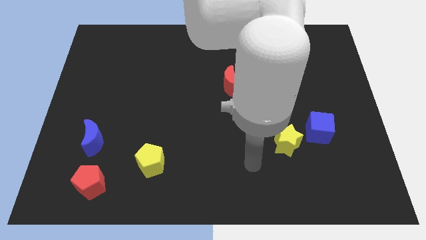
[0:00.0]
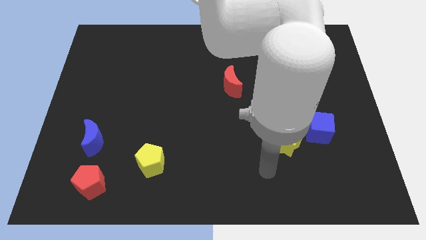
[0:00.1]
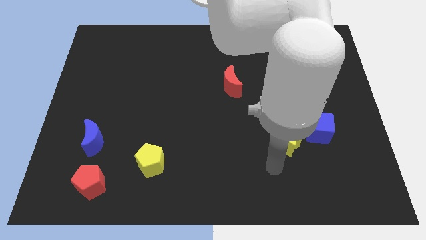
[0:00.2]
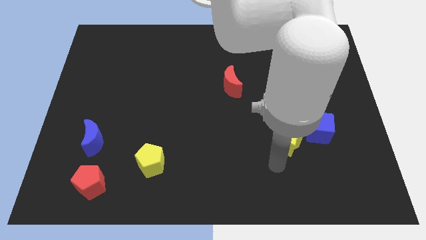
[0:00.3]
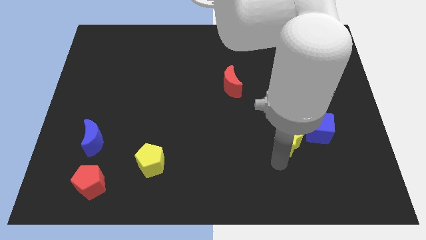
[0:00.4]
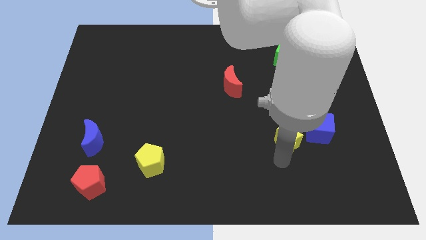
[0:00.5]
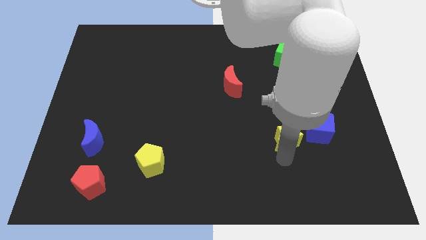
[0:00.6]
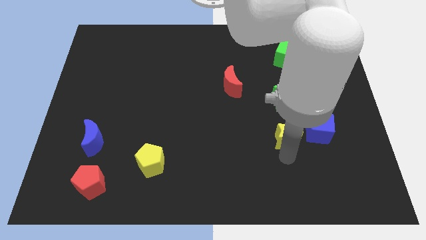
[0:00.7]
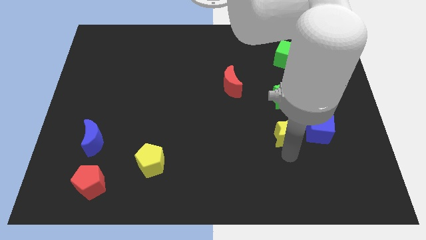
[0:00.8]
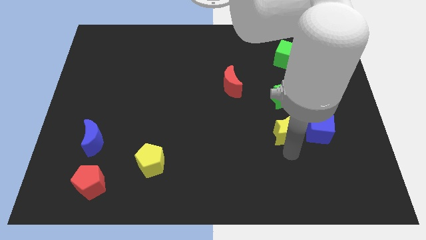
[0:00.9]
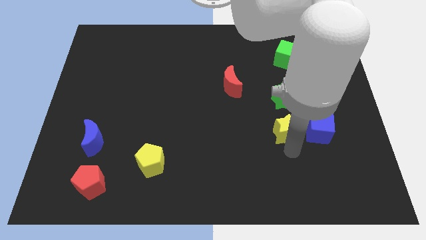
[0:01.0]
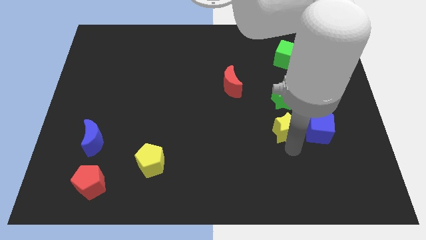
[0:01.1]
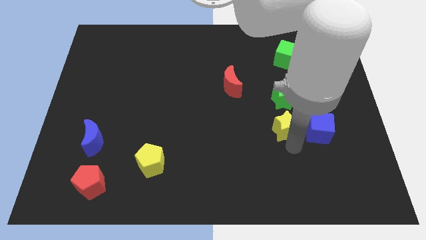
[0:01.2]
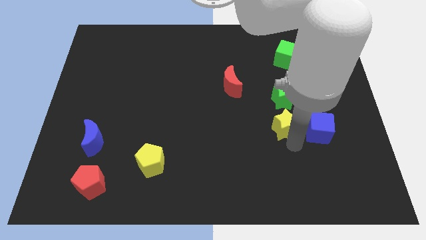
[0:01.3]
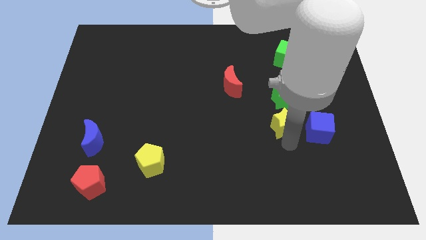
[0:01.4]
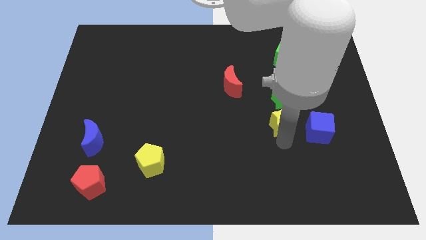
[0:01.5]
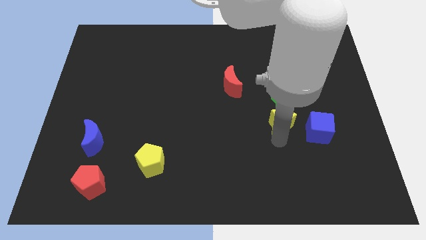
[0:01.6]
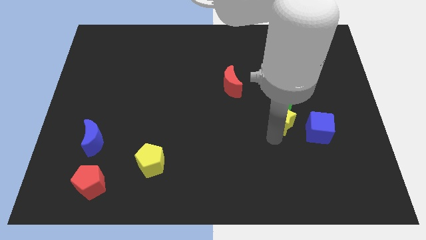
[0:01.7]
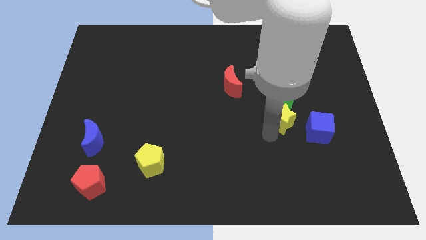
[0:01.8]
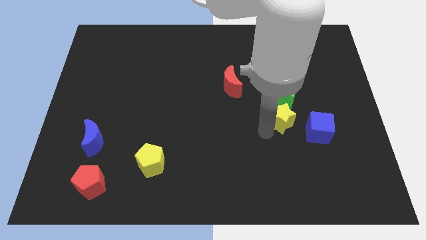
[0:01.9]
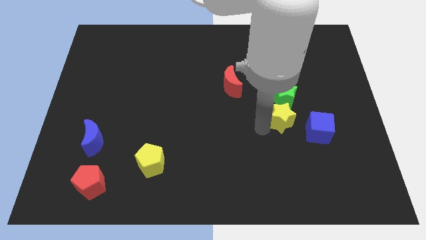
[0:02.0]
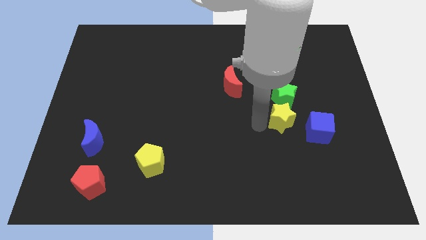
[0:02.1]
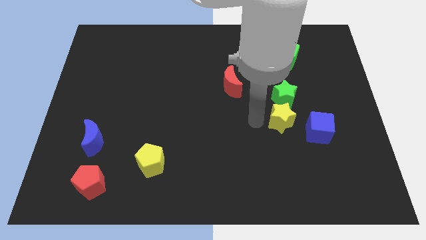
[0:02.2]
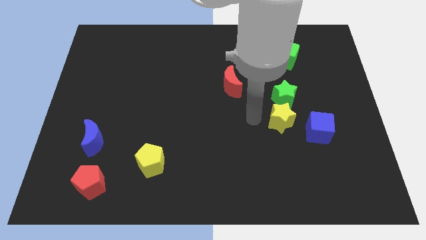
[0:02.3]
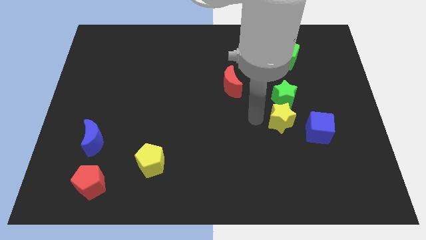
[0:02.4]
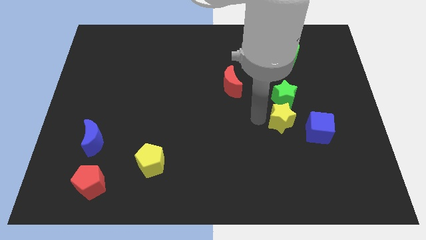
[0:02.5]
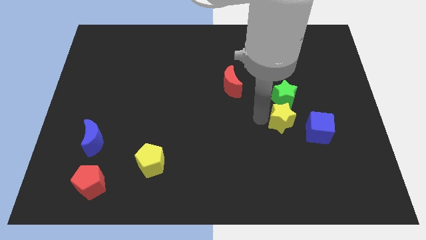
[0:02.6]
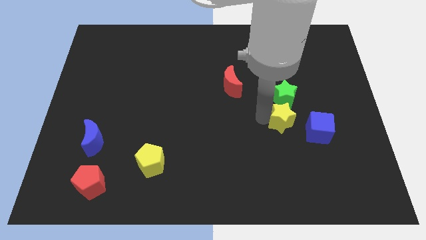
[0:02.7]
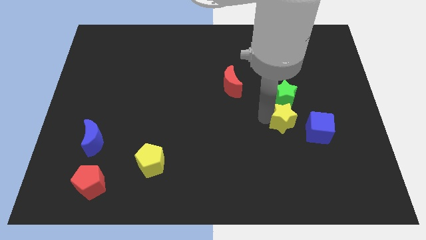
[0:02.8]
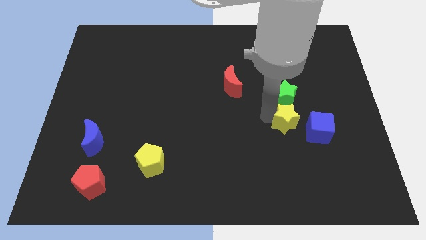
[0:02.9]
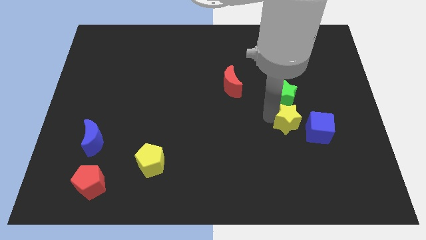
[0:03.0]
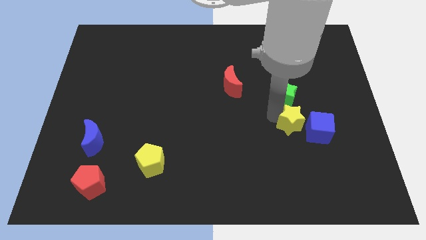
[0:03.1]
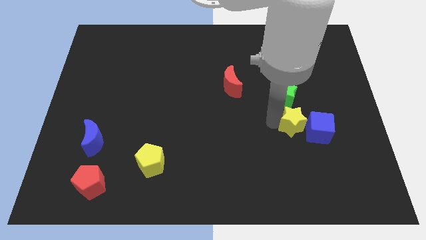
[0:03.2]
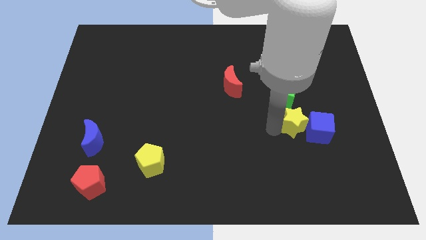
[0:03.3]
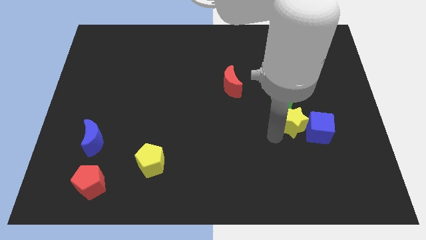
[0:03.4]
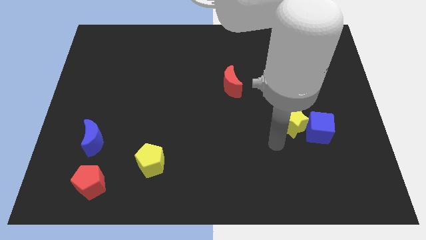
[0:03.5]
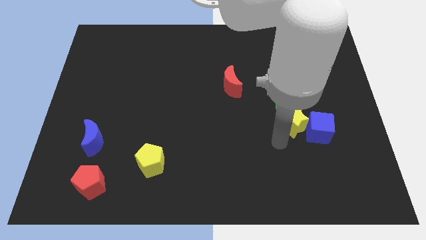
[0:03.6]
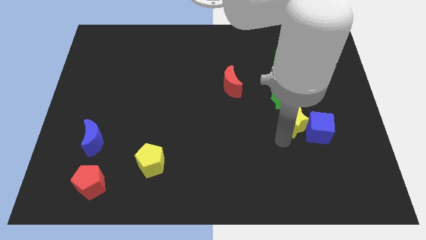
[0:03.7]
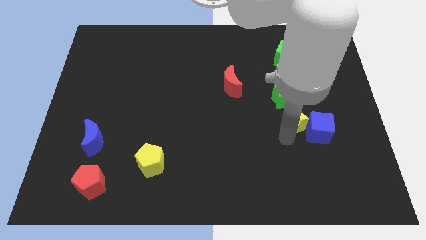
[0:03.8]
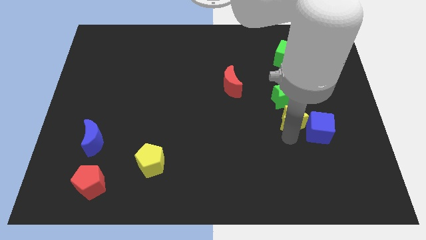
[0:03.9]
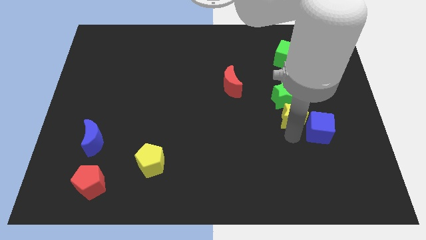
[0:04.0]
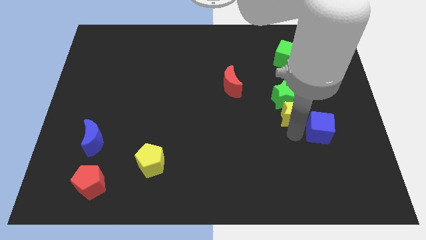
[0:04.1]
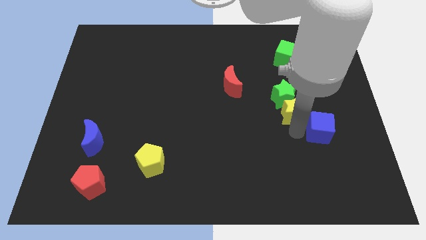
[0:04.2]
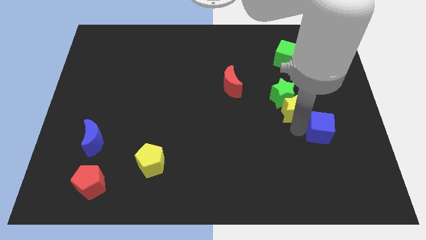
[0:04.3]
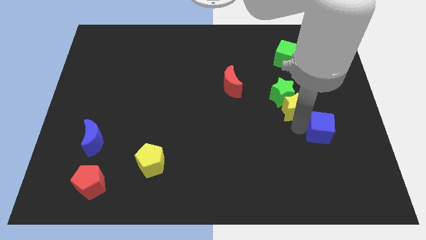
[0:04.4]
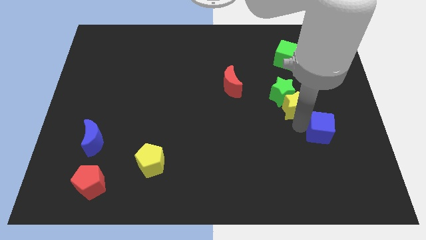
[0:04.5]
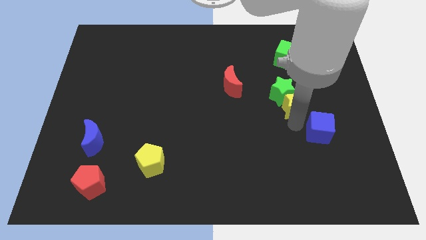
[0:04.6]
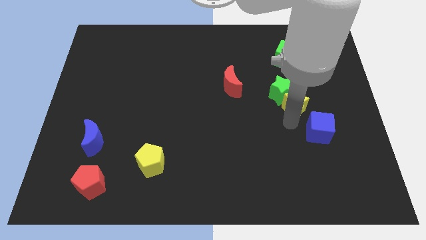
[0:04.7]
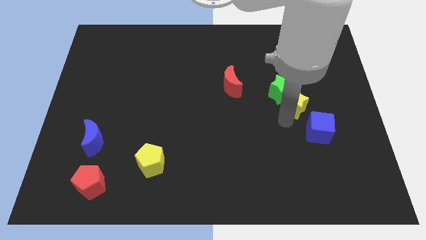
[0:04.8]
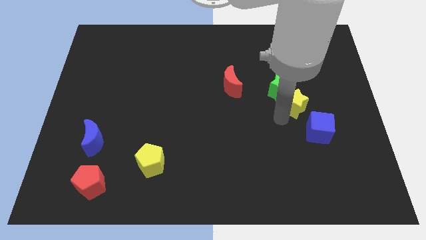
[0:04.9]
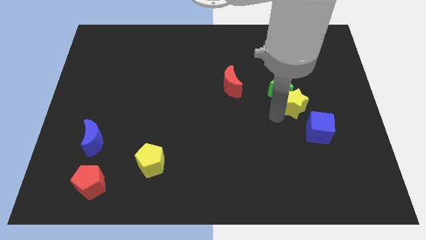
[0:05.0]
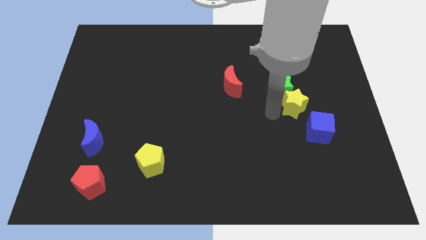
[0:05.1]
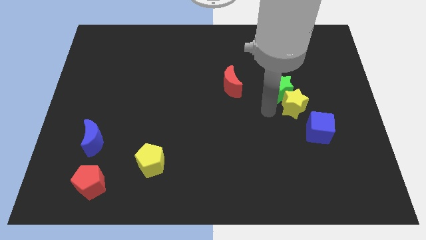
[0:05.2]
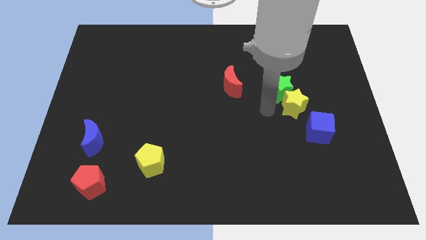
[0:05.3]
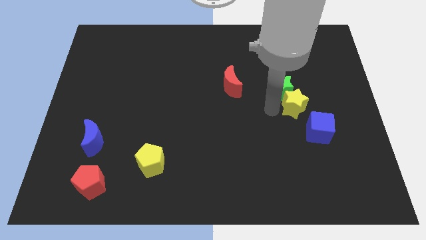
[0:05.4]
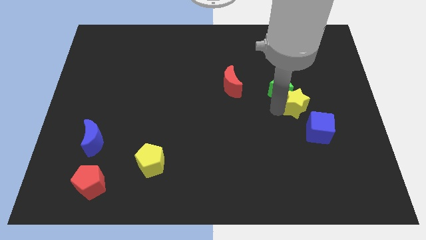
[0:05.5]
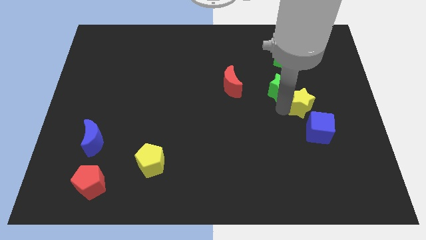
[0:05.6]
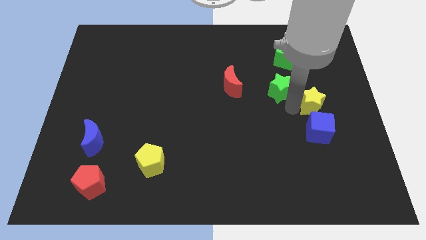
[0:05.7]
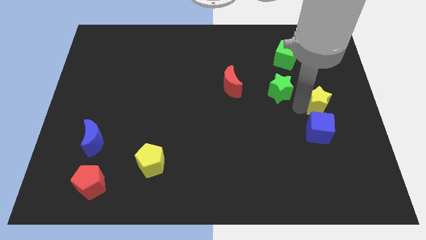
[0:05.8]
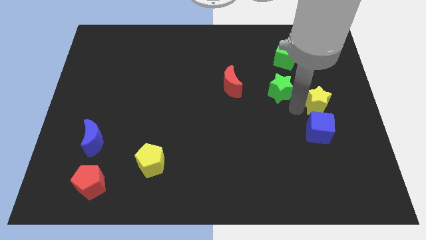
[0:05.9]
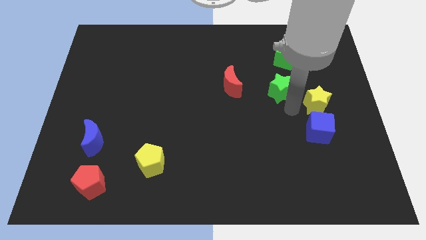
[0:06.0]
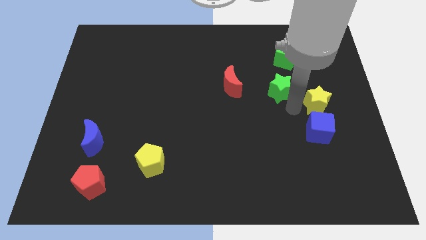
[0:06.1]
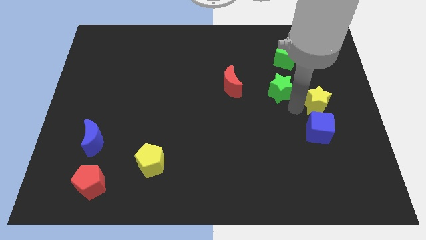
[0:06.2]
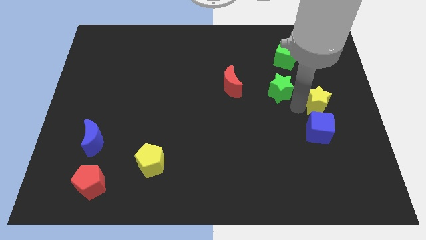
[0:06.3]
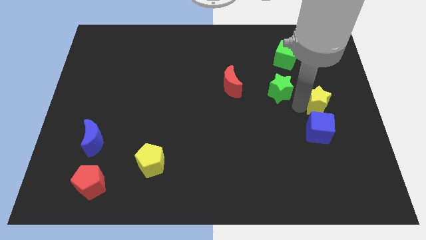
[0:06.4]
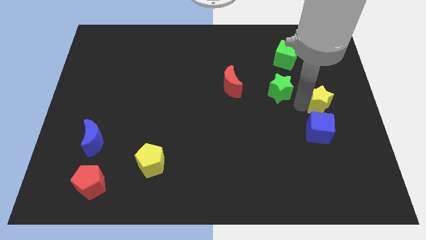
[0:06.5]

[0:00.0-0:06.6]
push the yellow star to the right side
